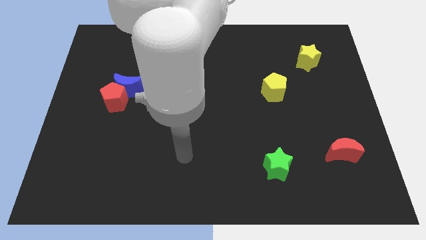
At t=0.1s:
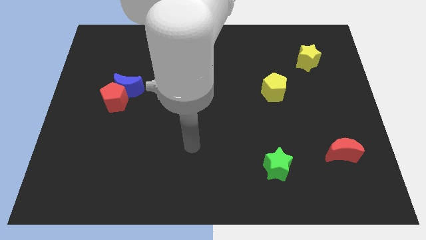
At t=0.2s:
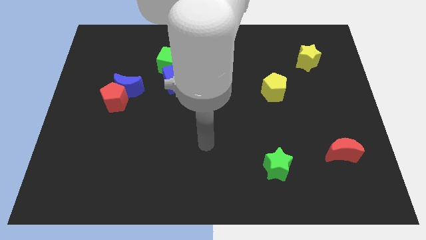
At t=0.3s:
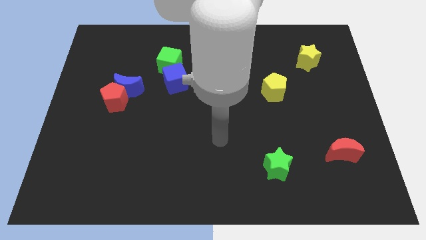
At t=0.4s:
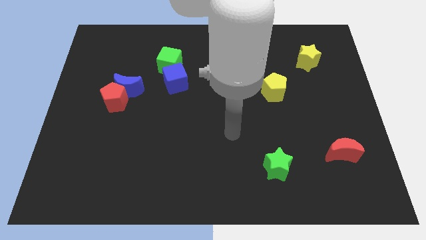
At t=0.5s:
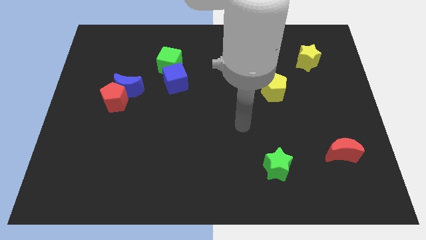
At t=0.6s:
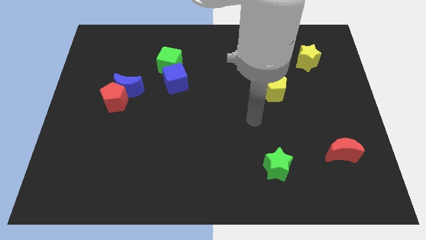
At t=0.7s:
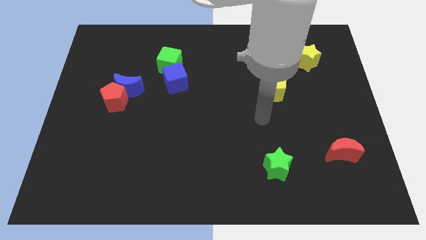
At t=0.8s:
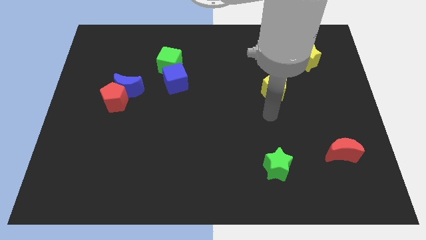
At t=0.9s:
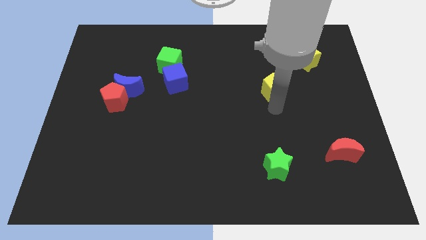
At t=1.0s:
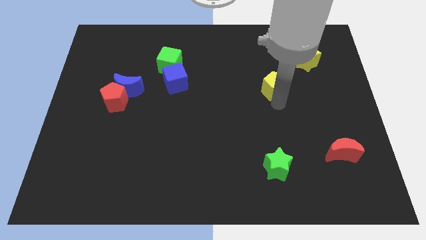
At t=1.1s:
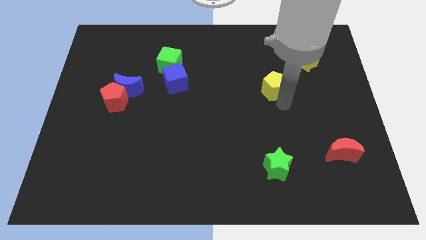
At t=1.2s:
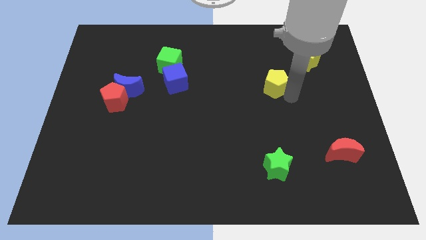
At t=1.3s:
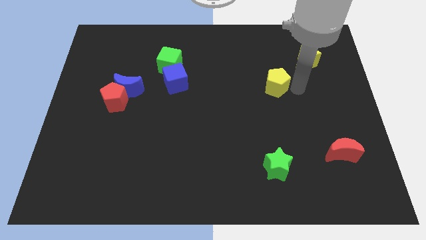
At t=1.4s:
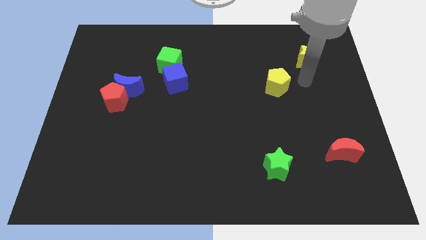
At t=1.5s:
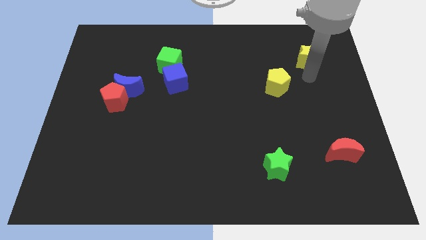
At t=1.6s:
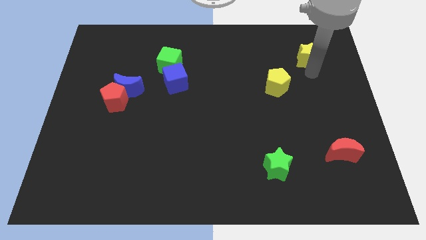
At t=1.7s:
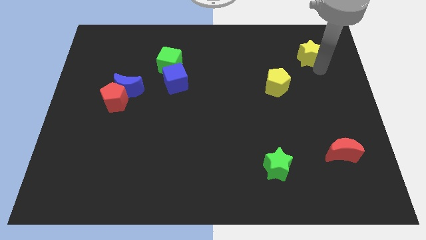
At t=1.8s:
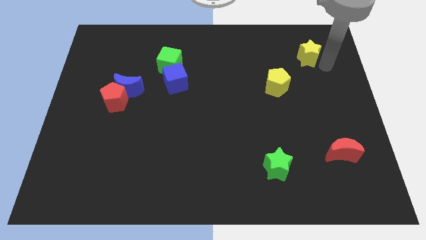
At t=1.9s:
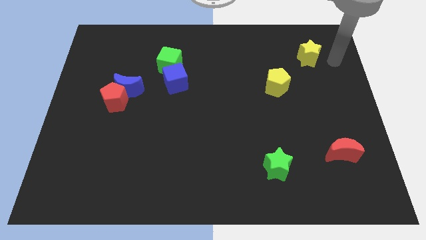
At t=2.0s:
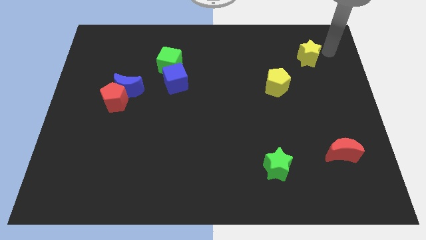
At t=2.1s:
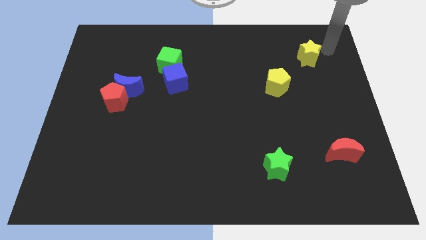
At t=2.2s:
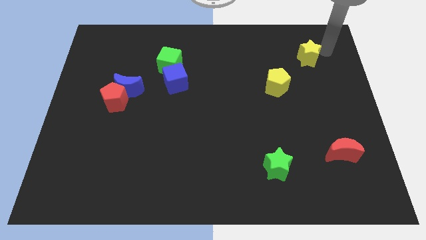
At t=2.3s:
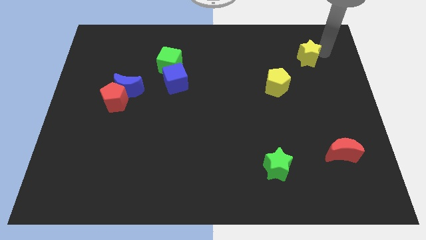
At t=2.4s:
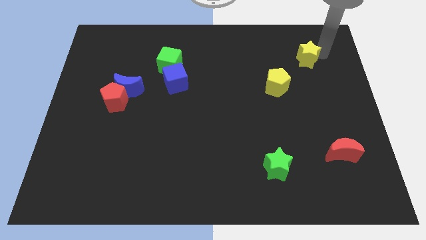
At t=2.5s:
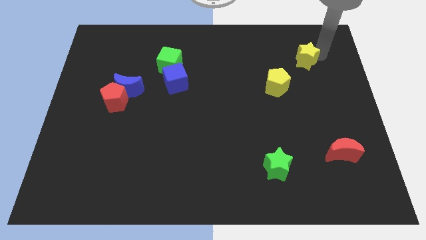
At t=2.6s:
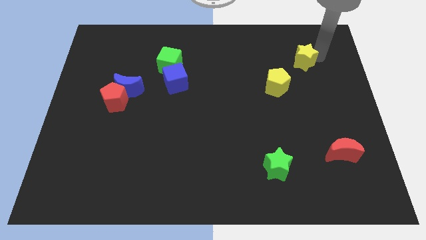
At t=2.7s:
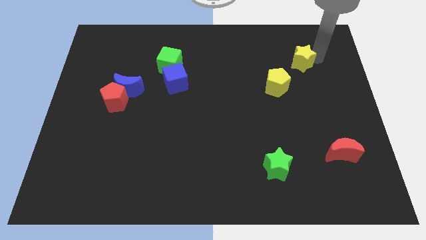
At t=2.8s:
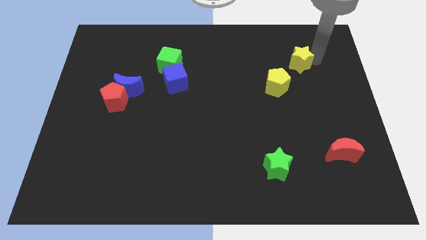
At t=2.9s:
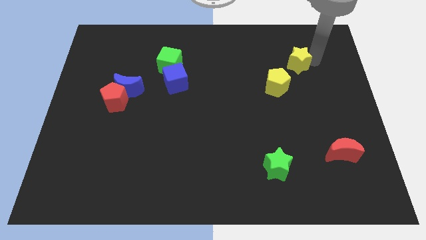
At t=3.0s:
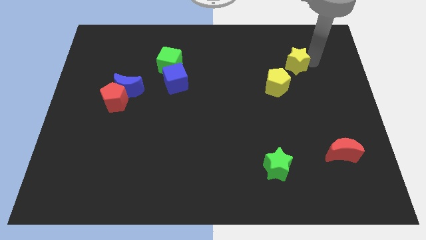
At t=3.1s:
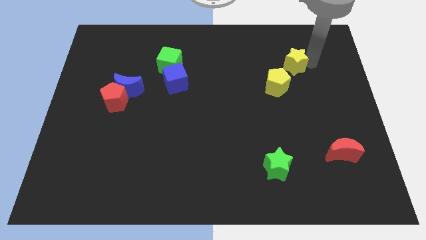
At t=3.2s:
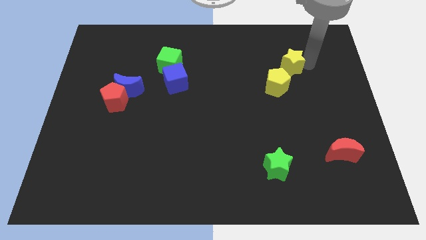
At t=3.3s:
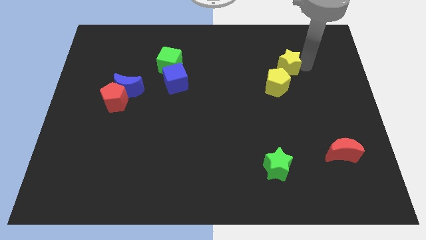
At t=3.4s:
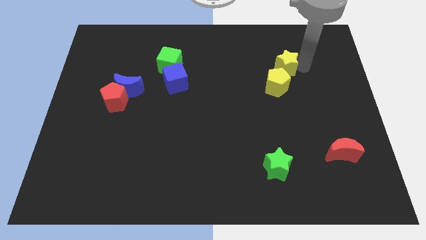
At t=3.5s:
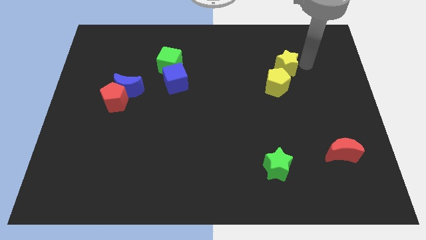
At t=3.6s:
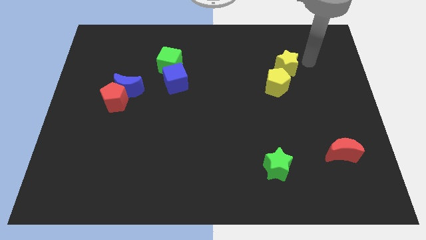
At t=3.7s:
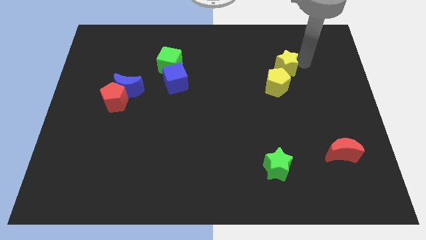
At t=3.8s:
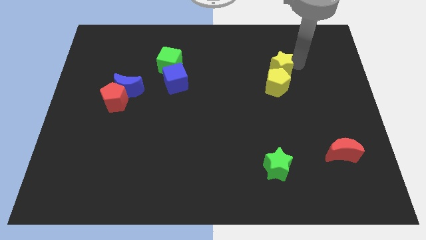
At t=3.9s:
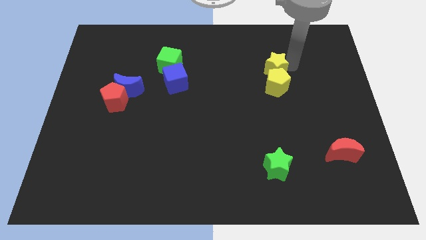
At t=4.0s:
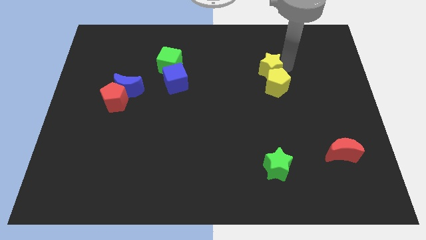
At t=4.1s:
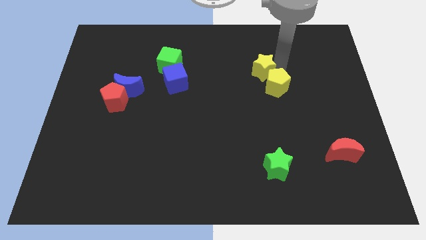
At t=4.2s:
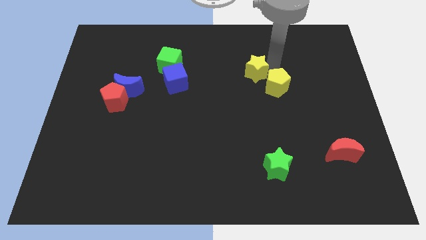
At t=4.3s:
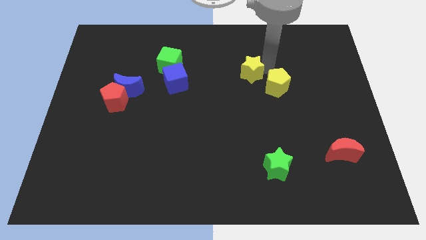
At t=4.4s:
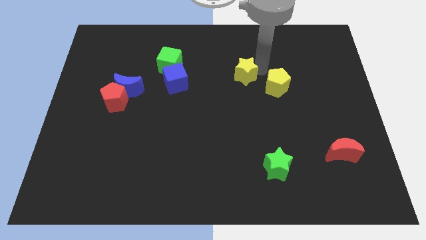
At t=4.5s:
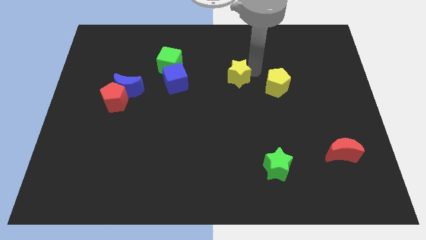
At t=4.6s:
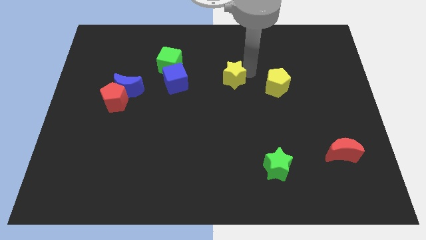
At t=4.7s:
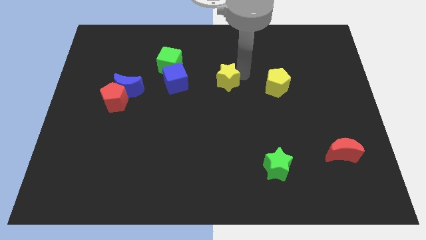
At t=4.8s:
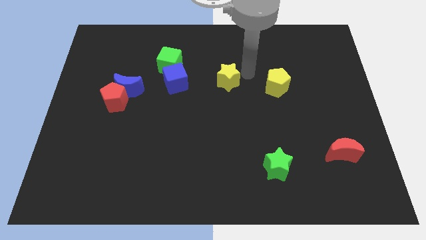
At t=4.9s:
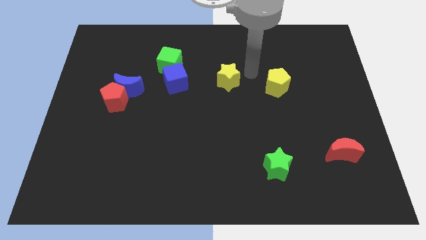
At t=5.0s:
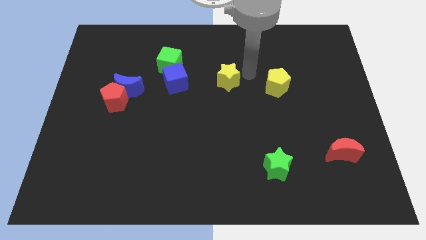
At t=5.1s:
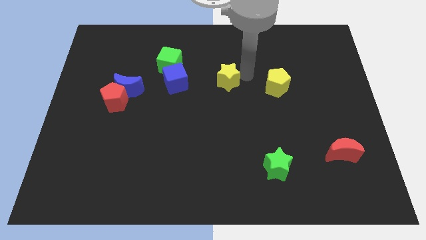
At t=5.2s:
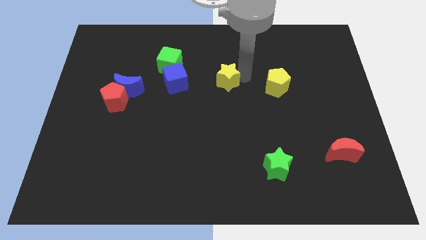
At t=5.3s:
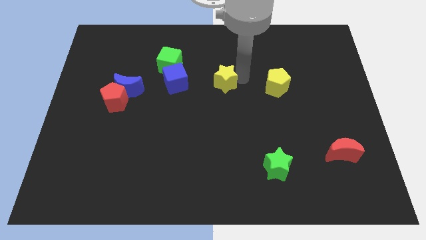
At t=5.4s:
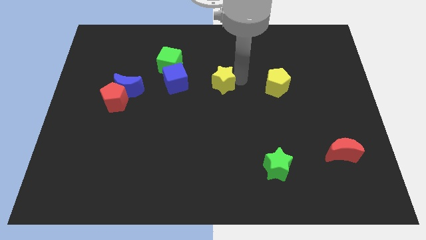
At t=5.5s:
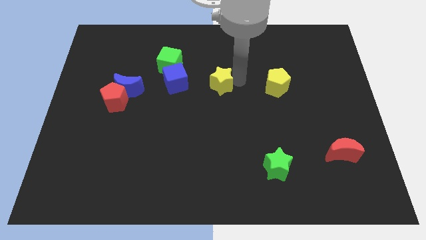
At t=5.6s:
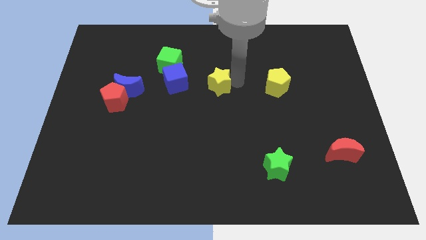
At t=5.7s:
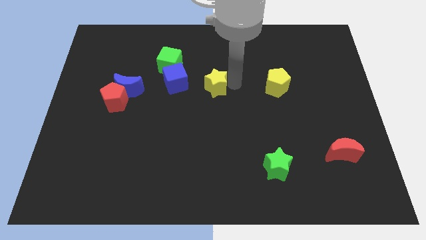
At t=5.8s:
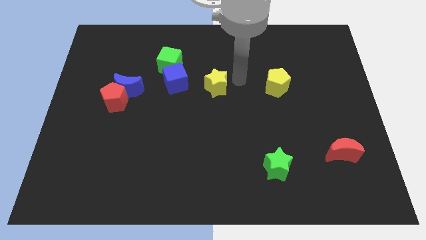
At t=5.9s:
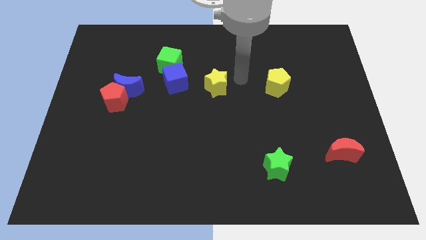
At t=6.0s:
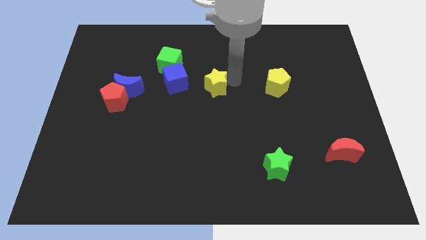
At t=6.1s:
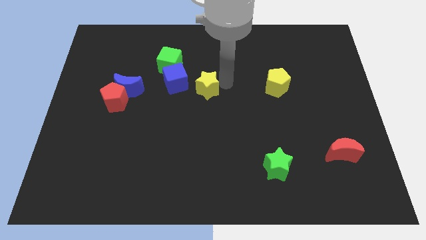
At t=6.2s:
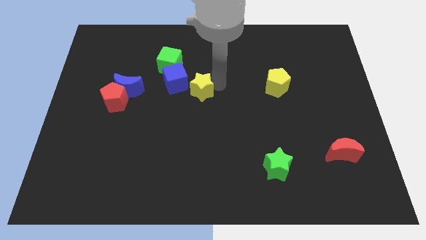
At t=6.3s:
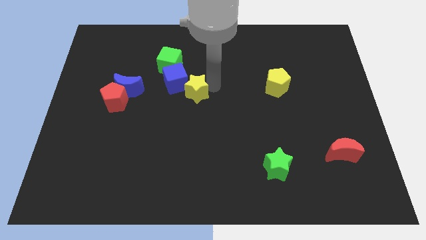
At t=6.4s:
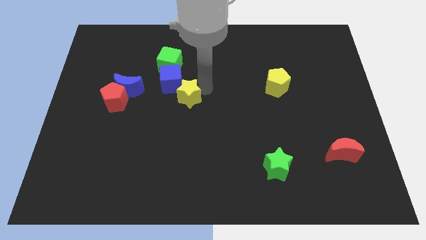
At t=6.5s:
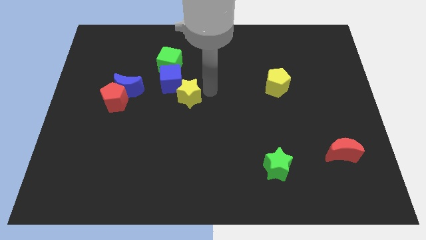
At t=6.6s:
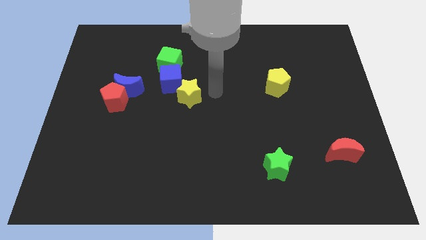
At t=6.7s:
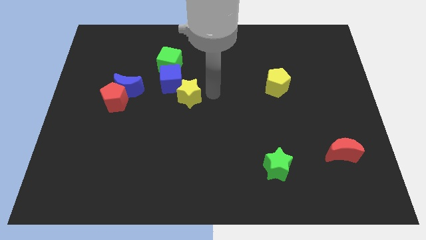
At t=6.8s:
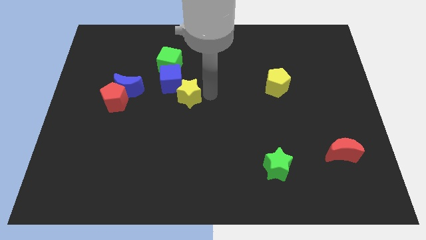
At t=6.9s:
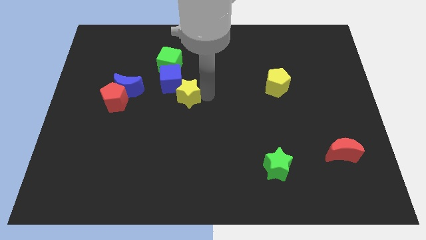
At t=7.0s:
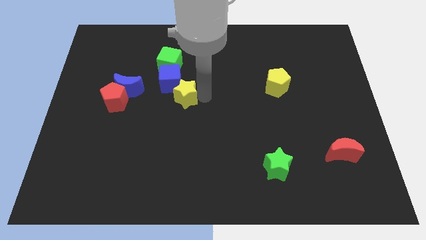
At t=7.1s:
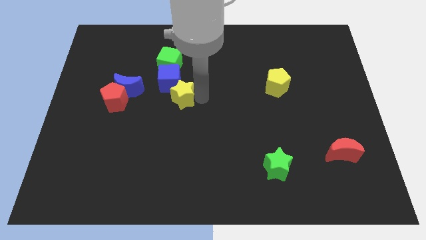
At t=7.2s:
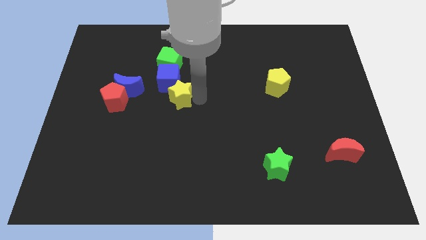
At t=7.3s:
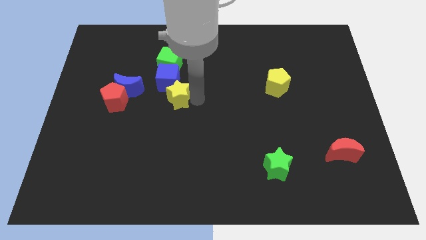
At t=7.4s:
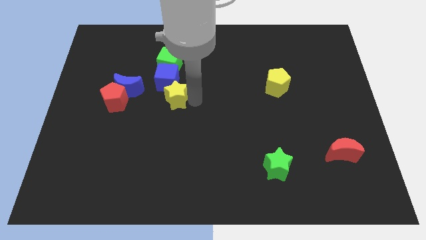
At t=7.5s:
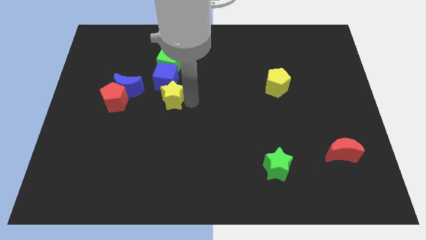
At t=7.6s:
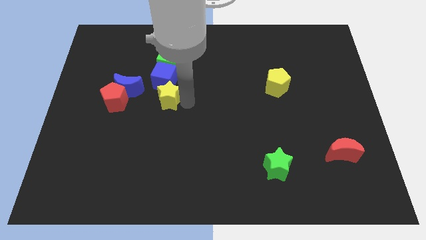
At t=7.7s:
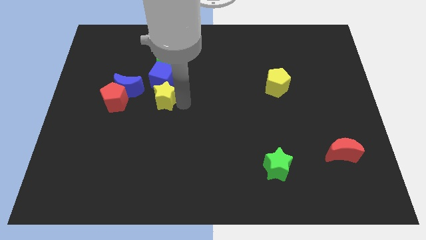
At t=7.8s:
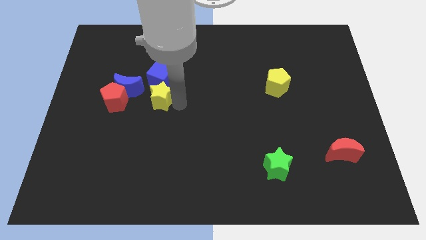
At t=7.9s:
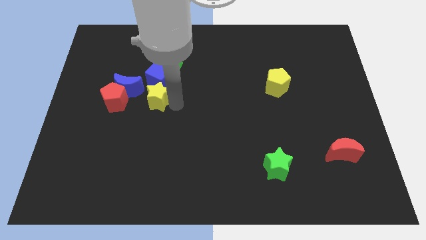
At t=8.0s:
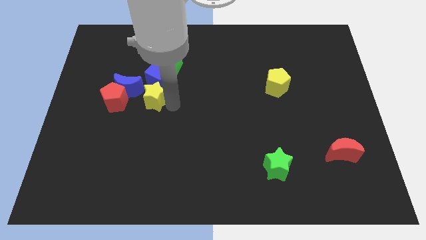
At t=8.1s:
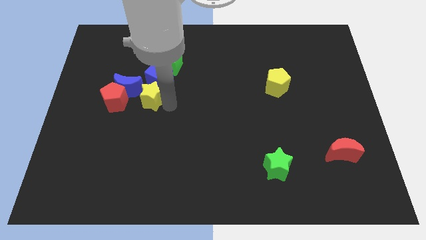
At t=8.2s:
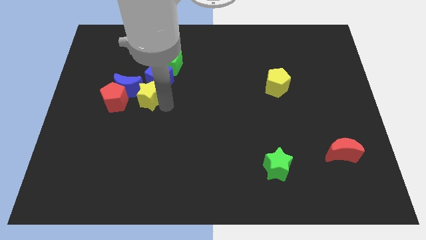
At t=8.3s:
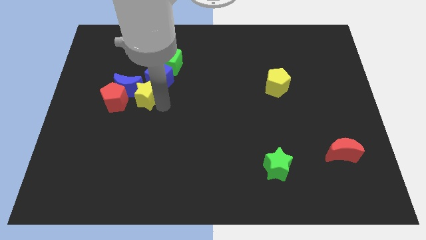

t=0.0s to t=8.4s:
slide the yellow star diagonally up and to the right of the red pentagon
